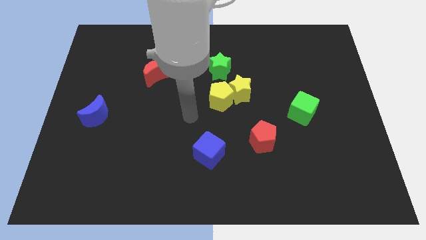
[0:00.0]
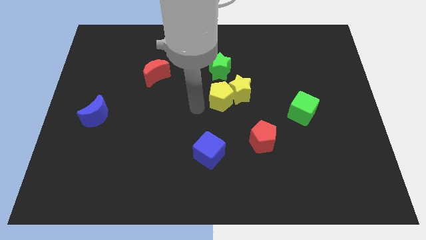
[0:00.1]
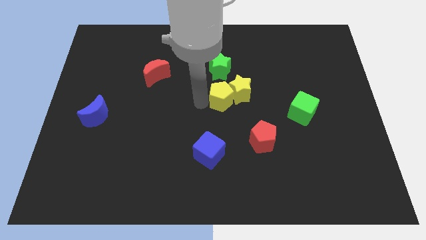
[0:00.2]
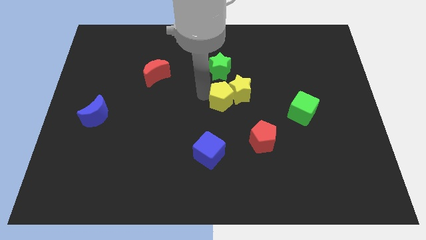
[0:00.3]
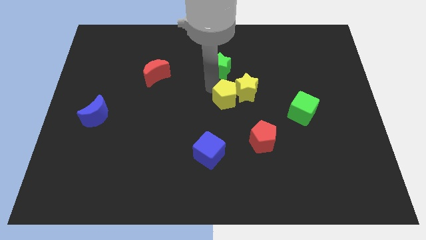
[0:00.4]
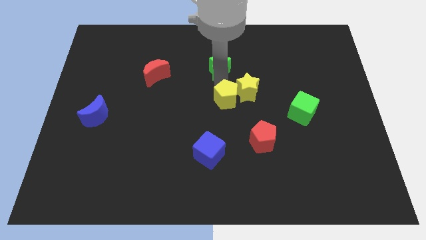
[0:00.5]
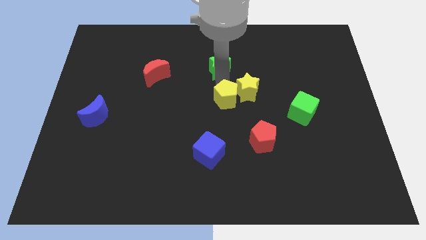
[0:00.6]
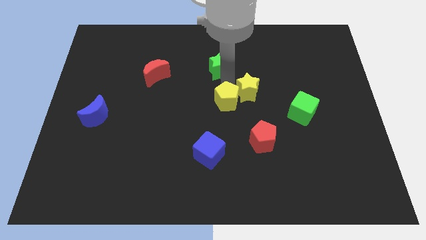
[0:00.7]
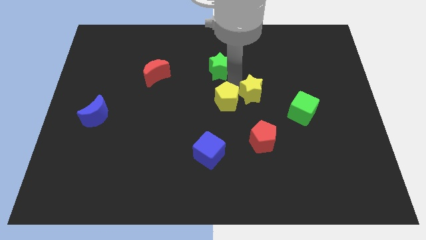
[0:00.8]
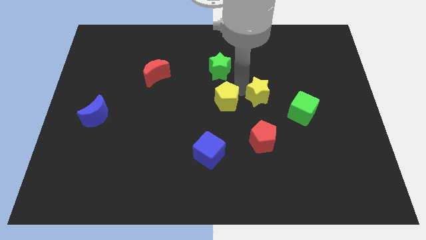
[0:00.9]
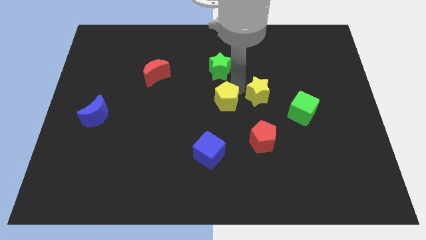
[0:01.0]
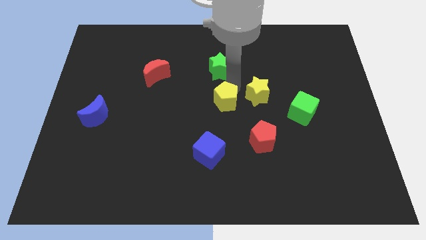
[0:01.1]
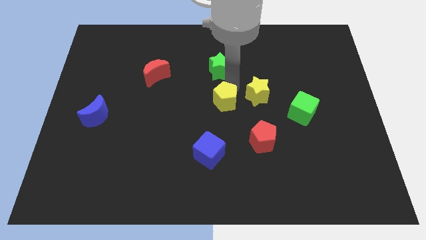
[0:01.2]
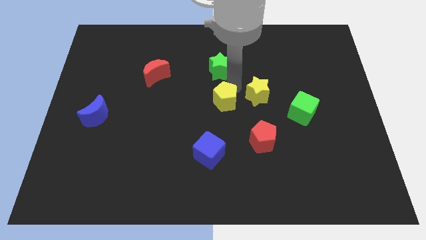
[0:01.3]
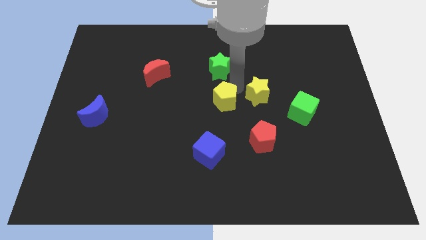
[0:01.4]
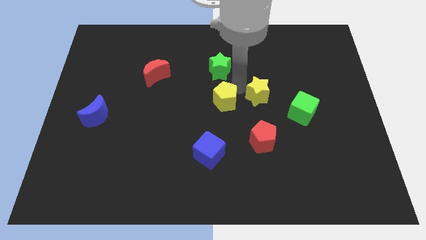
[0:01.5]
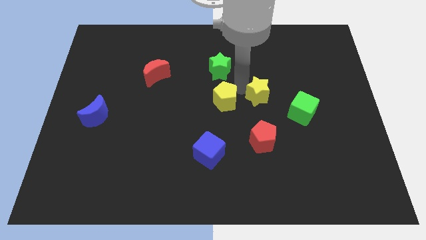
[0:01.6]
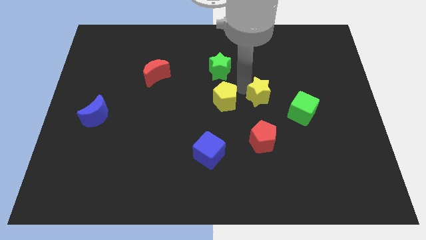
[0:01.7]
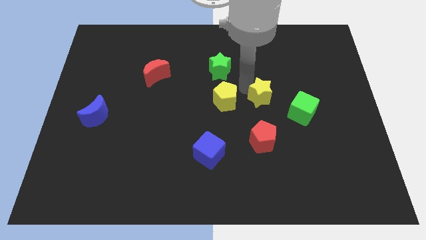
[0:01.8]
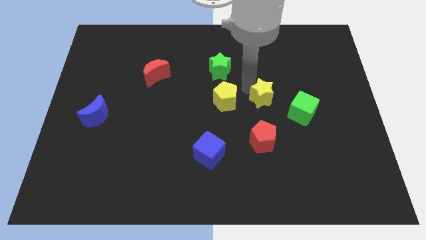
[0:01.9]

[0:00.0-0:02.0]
separate the yellow star from the yellow pentagon and green star

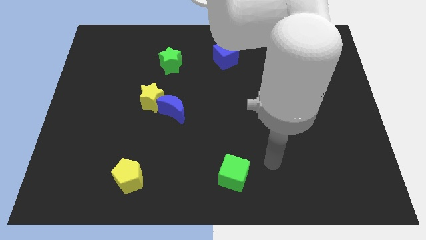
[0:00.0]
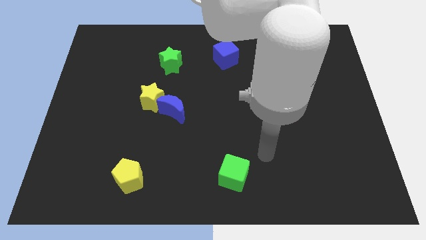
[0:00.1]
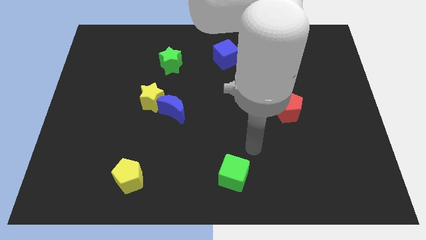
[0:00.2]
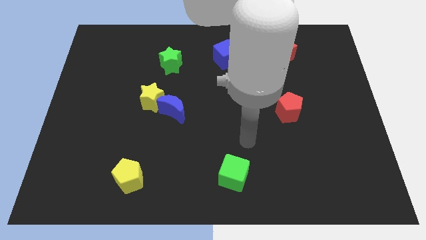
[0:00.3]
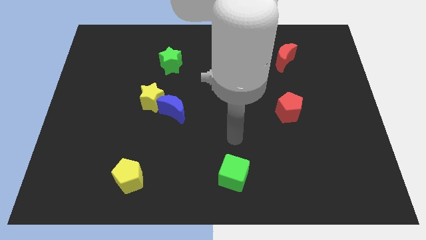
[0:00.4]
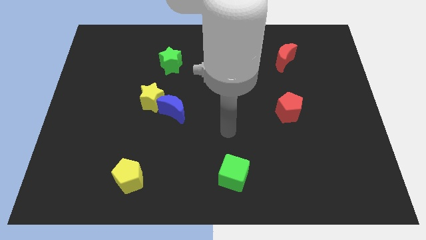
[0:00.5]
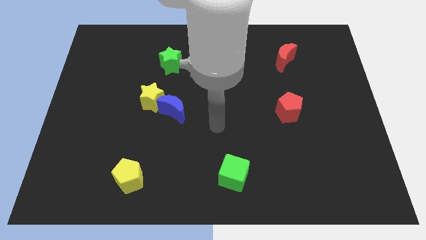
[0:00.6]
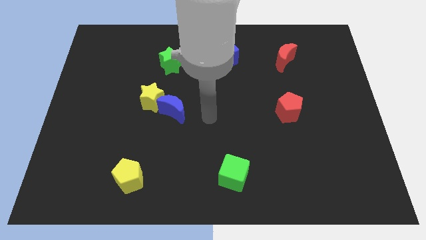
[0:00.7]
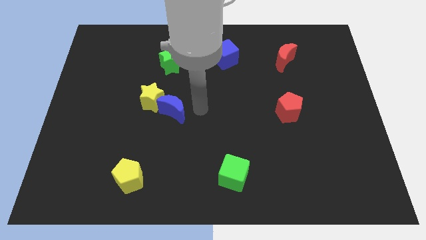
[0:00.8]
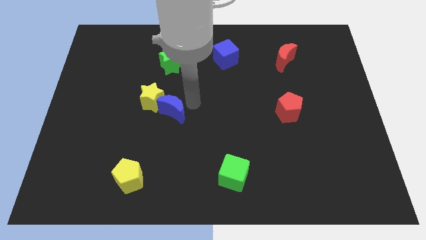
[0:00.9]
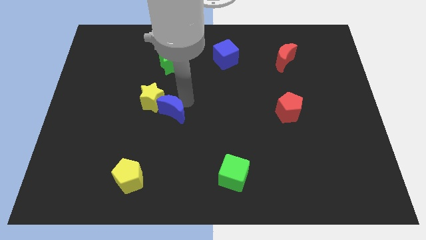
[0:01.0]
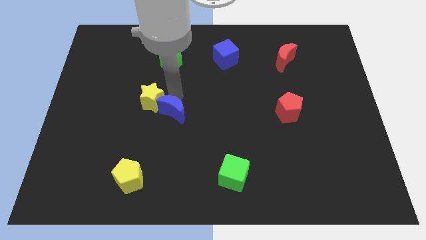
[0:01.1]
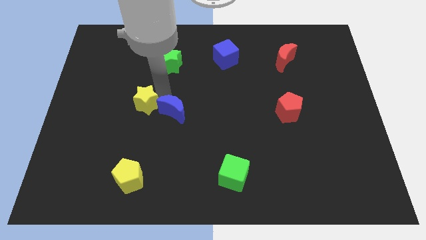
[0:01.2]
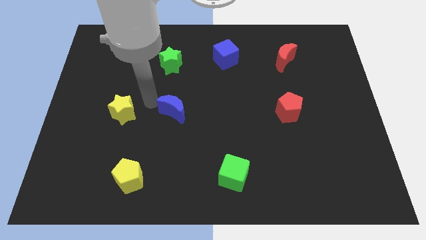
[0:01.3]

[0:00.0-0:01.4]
pull the blue moon apart from the yellow star

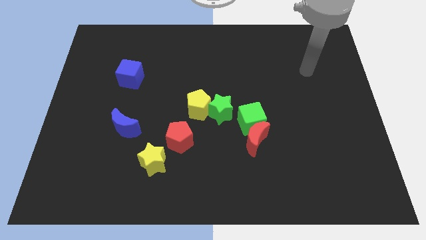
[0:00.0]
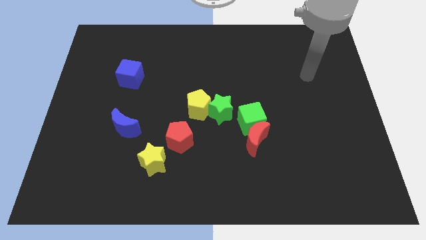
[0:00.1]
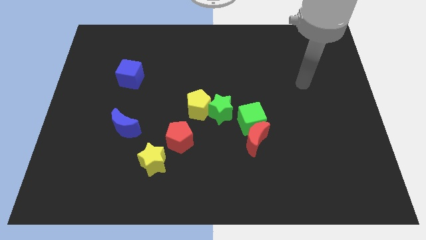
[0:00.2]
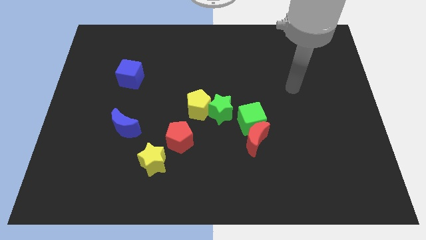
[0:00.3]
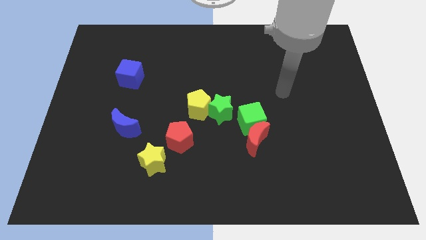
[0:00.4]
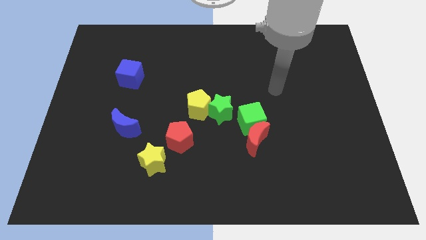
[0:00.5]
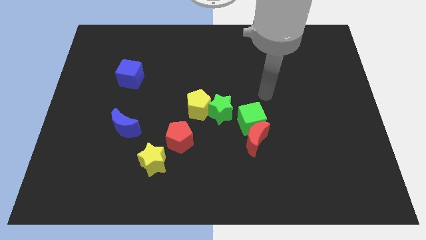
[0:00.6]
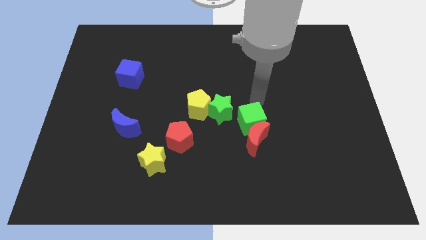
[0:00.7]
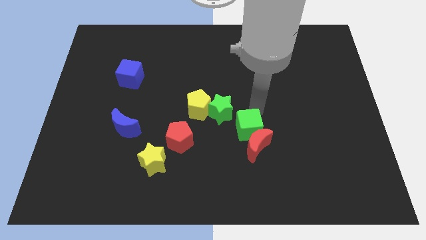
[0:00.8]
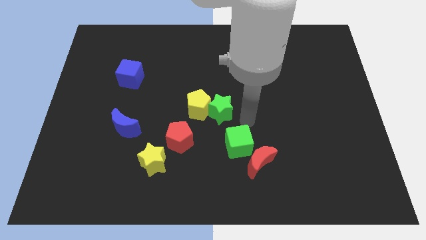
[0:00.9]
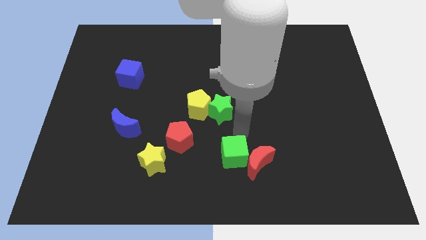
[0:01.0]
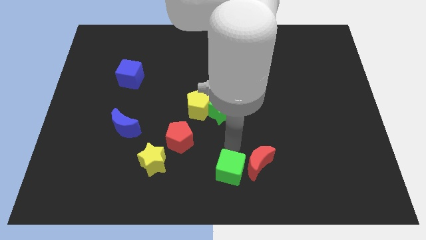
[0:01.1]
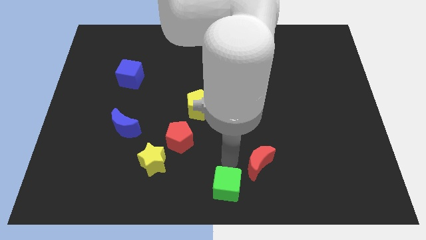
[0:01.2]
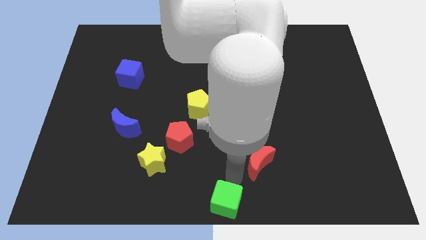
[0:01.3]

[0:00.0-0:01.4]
move the red moon away from the green cube

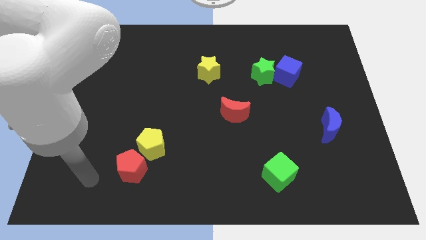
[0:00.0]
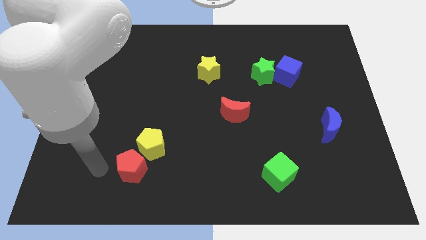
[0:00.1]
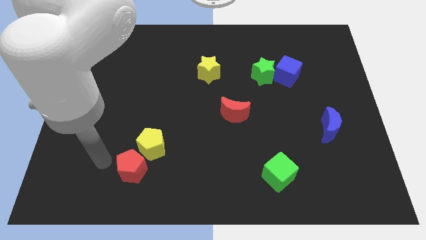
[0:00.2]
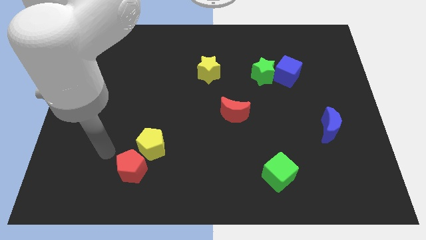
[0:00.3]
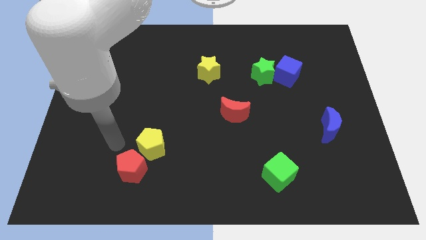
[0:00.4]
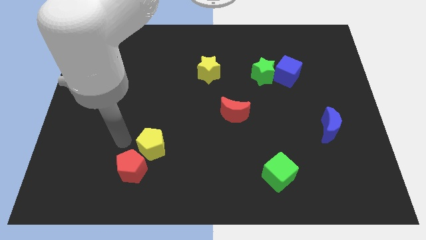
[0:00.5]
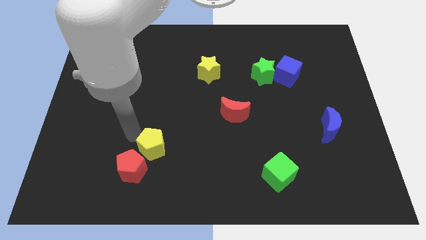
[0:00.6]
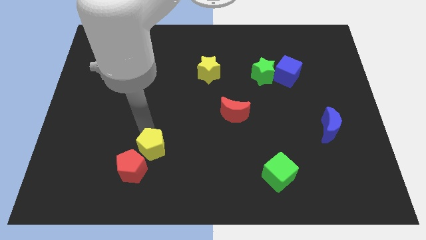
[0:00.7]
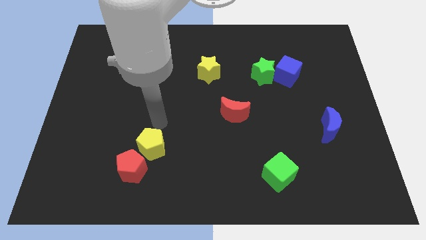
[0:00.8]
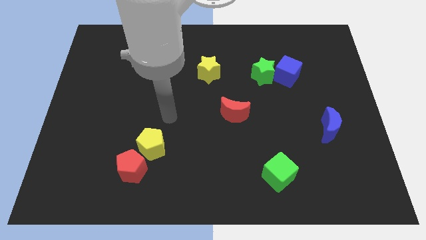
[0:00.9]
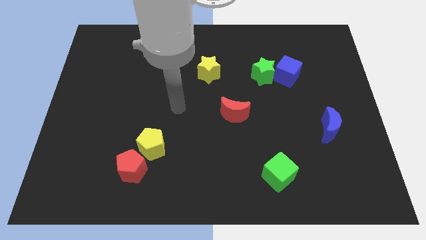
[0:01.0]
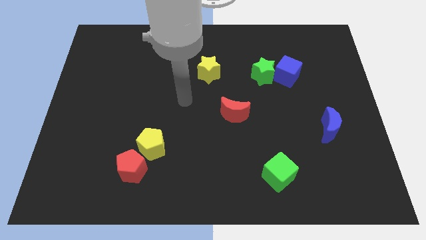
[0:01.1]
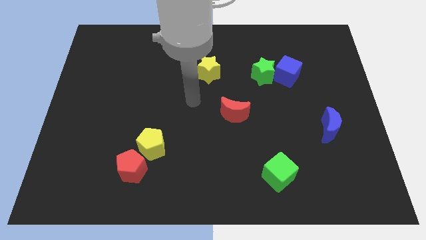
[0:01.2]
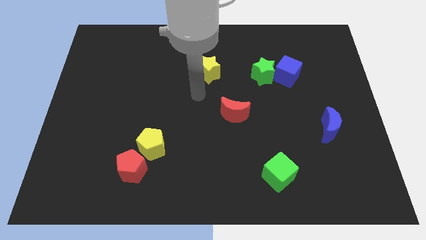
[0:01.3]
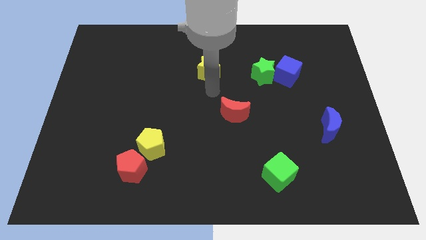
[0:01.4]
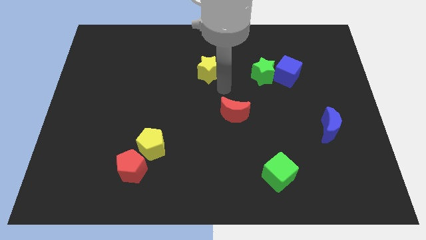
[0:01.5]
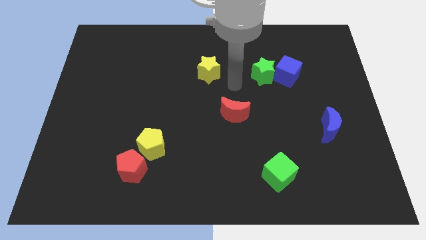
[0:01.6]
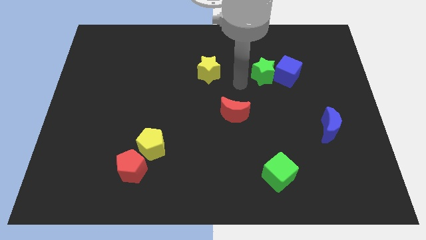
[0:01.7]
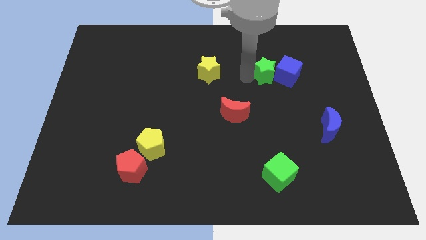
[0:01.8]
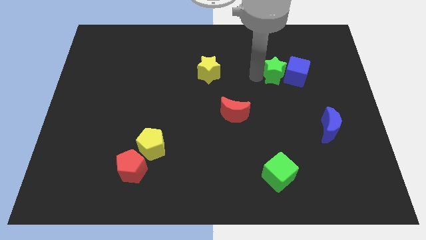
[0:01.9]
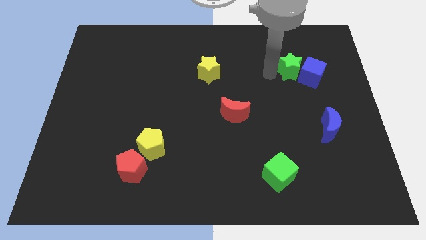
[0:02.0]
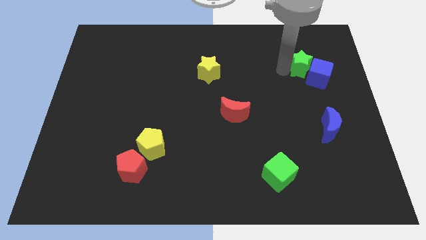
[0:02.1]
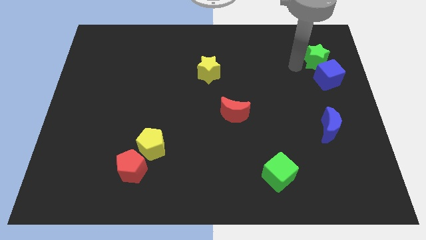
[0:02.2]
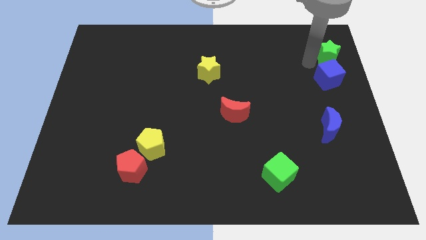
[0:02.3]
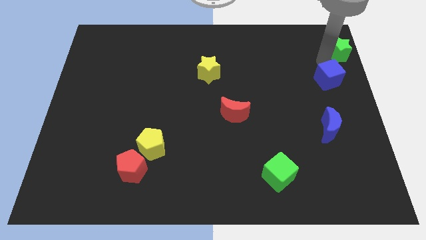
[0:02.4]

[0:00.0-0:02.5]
separate the blue cube from the green star

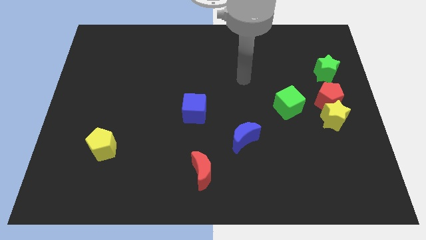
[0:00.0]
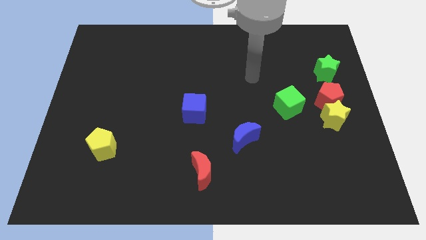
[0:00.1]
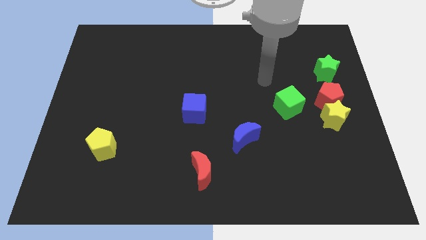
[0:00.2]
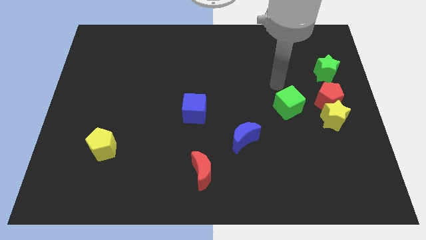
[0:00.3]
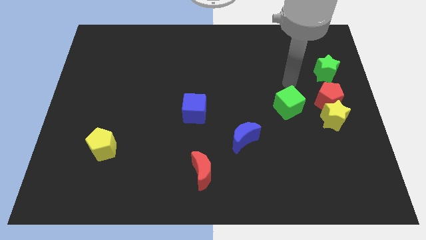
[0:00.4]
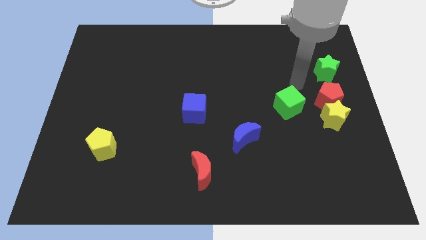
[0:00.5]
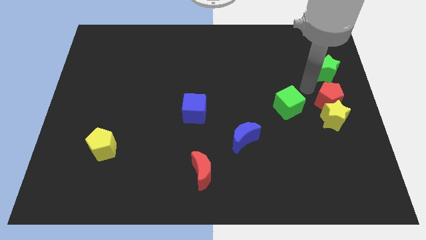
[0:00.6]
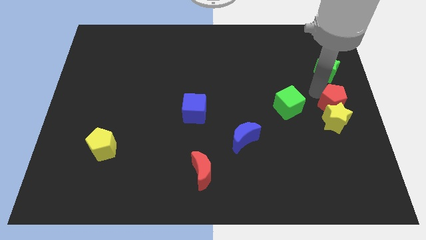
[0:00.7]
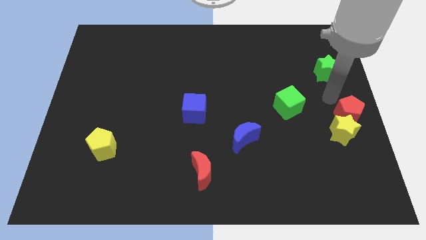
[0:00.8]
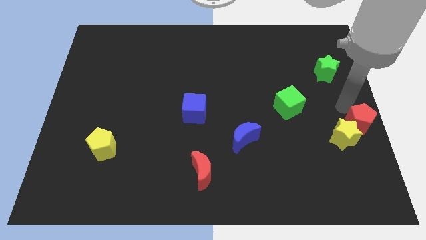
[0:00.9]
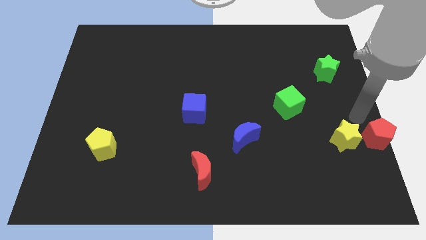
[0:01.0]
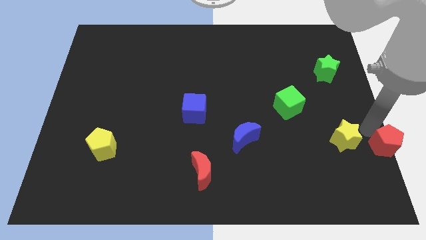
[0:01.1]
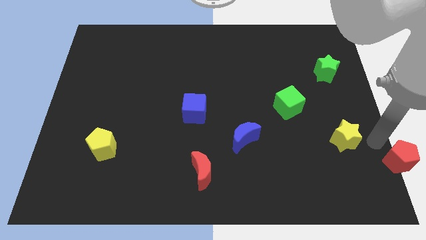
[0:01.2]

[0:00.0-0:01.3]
separate the yellow star from the red pentagon

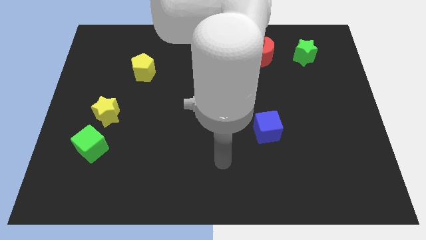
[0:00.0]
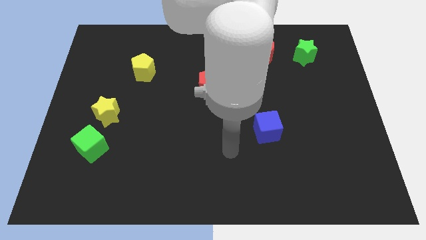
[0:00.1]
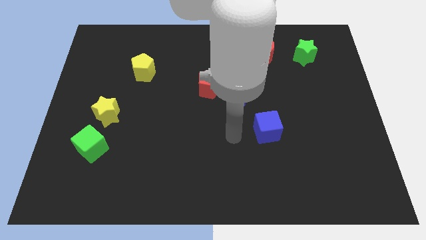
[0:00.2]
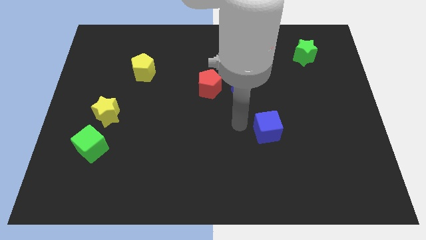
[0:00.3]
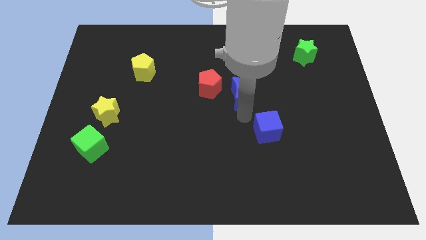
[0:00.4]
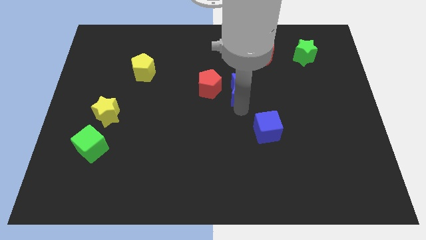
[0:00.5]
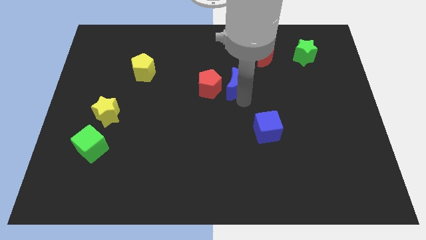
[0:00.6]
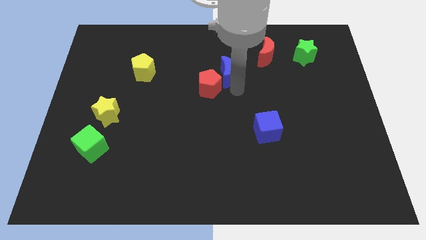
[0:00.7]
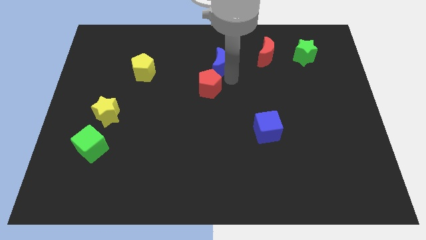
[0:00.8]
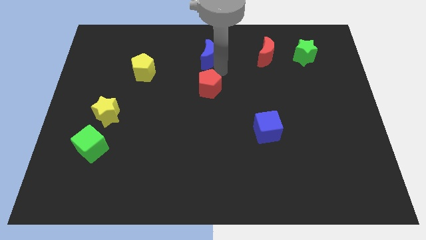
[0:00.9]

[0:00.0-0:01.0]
pull the red pentagon apart from the blue moon
